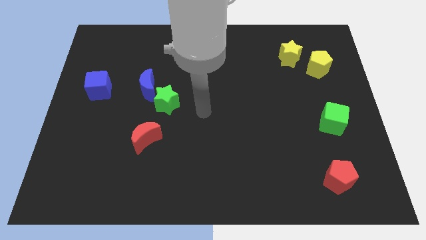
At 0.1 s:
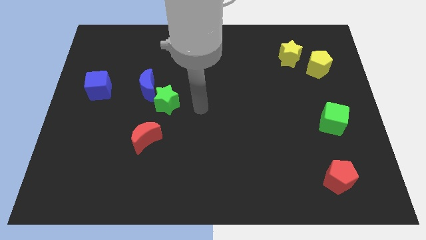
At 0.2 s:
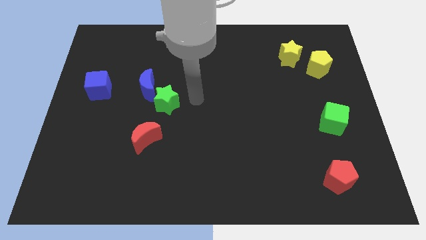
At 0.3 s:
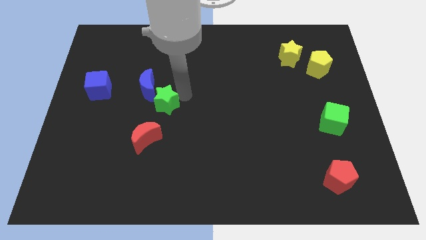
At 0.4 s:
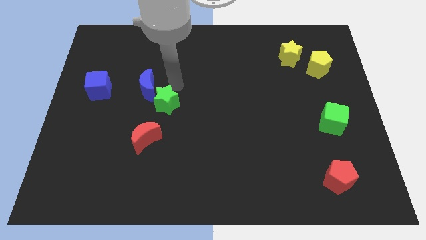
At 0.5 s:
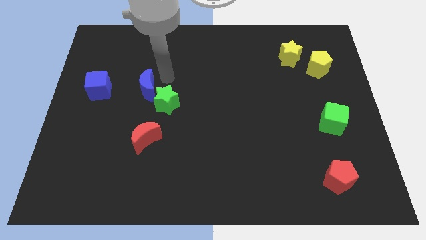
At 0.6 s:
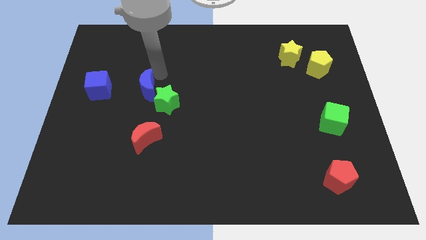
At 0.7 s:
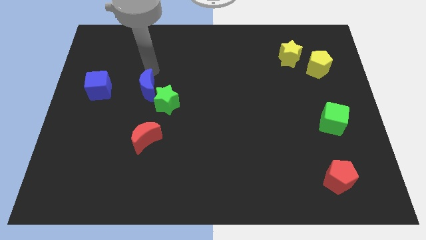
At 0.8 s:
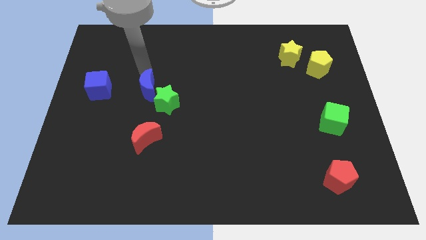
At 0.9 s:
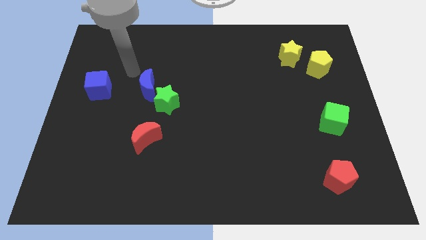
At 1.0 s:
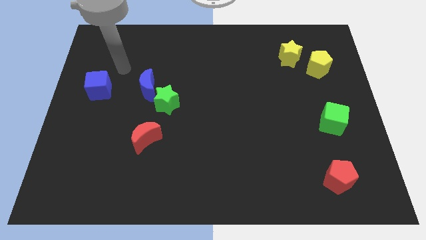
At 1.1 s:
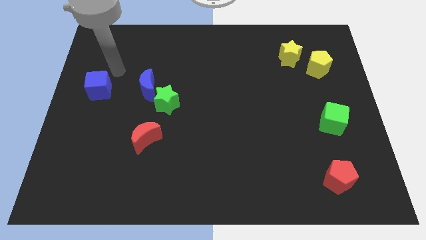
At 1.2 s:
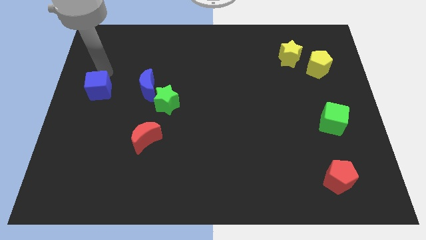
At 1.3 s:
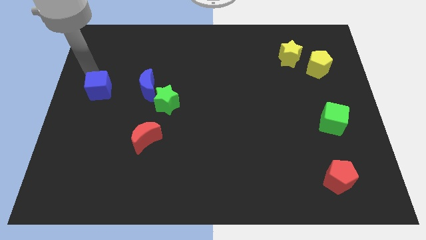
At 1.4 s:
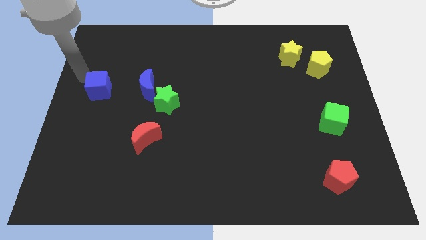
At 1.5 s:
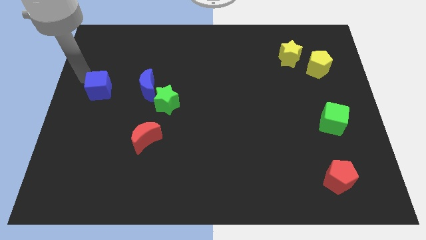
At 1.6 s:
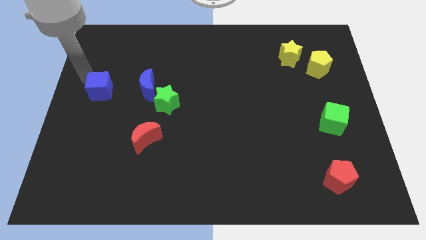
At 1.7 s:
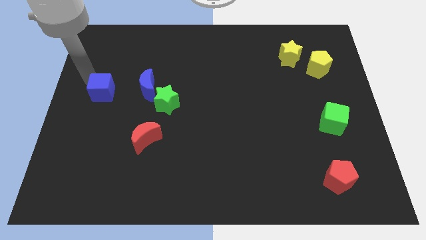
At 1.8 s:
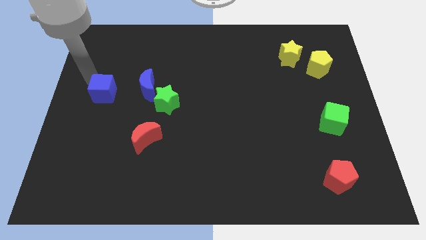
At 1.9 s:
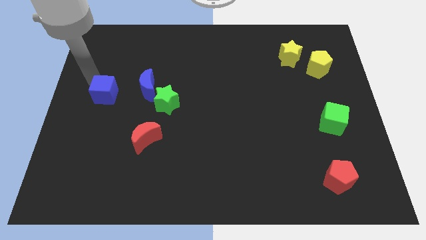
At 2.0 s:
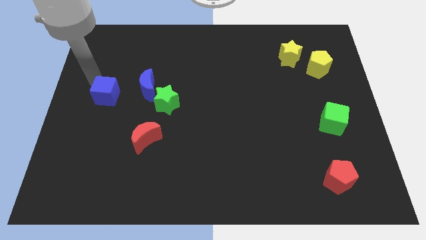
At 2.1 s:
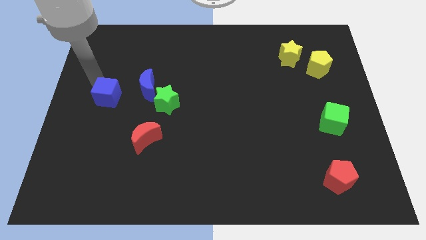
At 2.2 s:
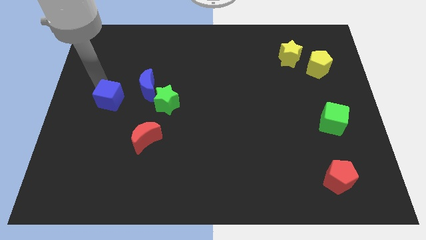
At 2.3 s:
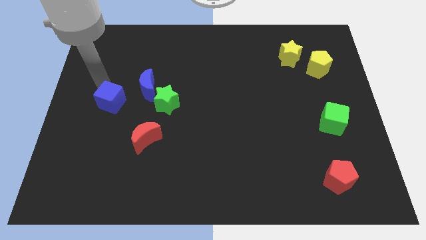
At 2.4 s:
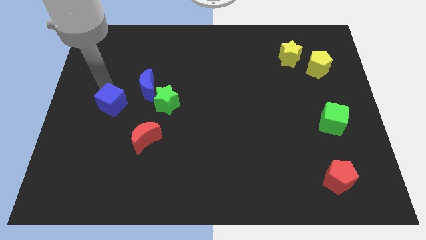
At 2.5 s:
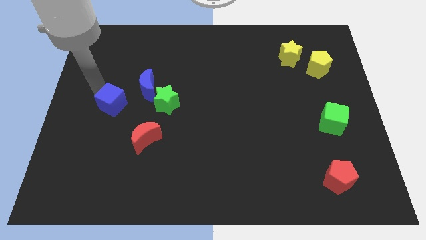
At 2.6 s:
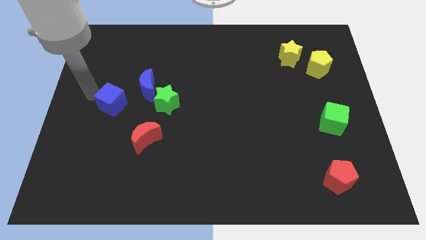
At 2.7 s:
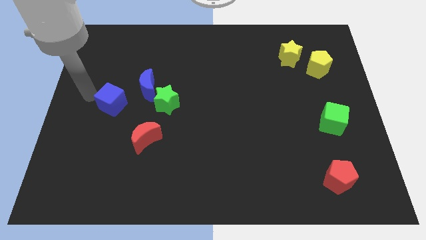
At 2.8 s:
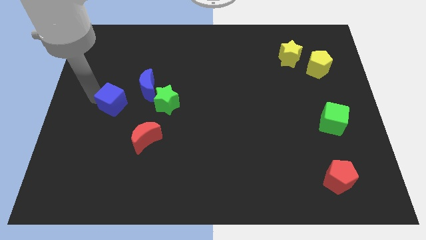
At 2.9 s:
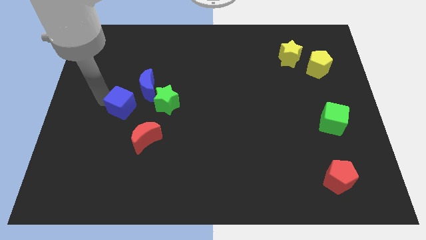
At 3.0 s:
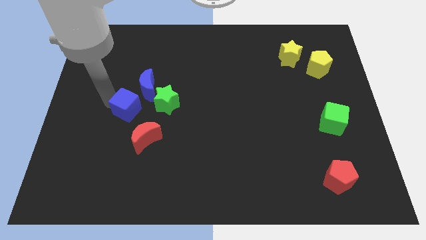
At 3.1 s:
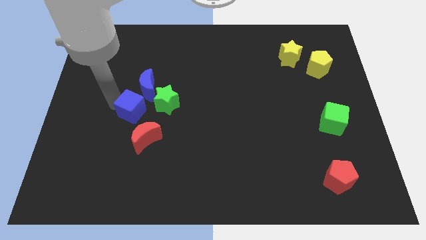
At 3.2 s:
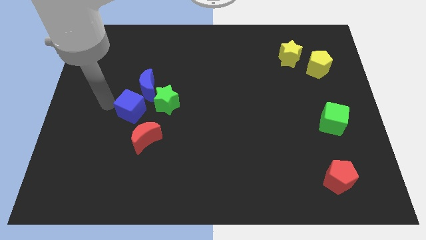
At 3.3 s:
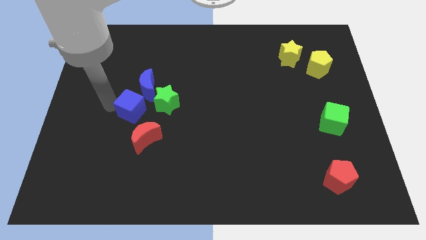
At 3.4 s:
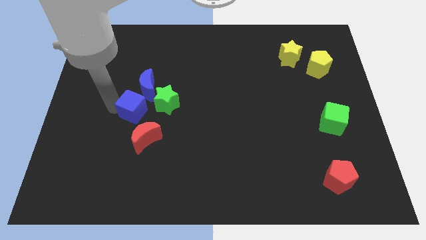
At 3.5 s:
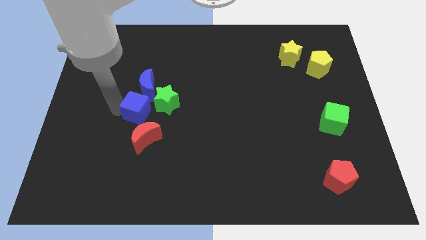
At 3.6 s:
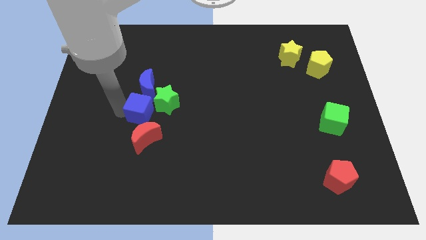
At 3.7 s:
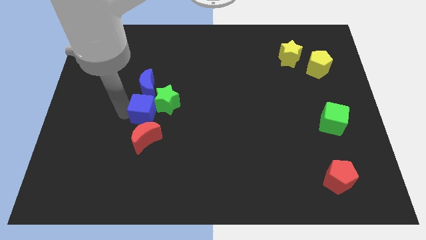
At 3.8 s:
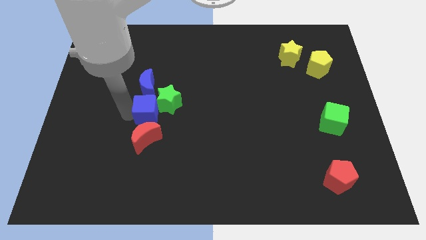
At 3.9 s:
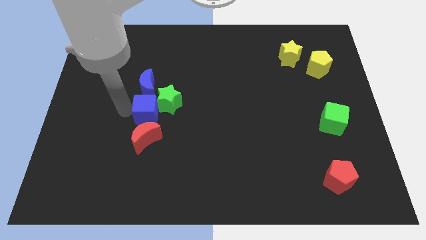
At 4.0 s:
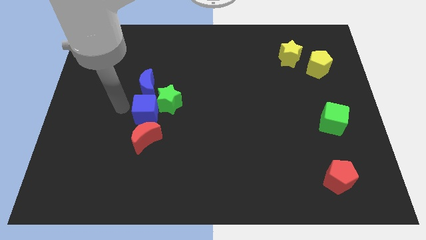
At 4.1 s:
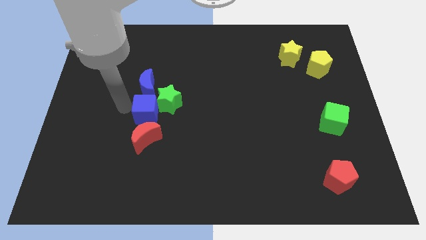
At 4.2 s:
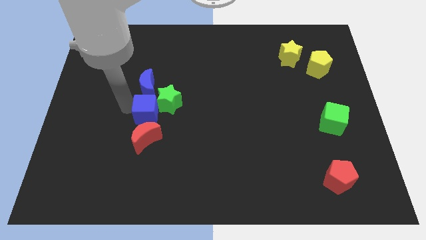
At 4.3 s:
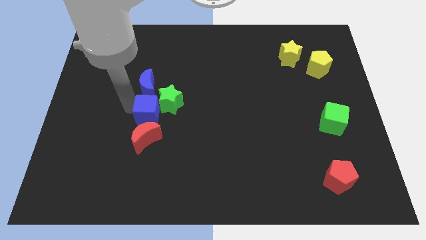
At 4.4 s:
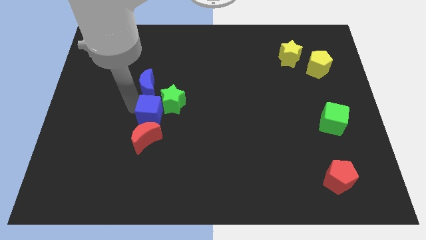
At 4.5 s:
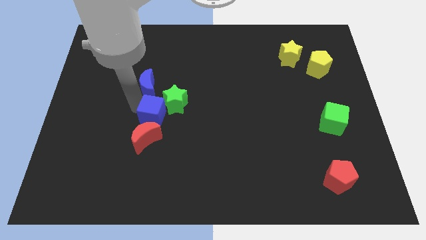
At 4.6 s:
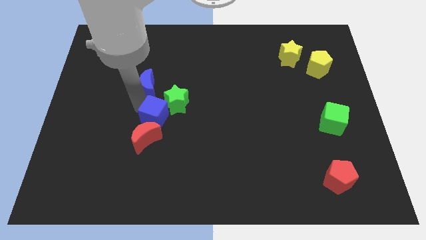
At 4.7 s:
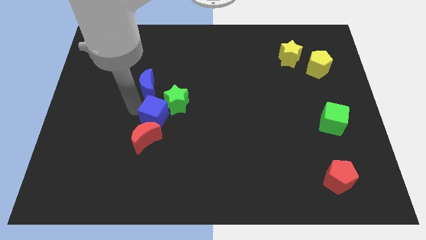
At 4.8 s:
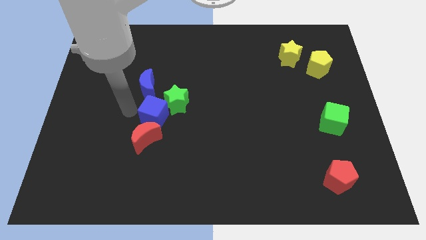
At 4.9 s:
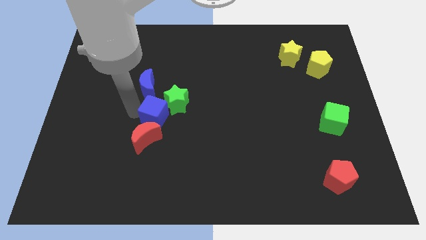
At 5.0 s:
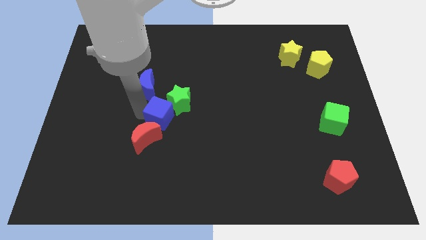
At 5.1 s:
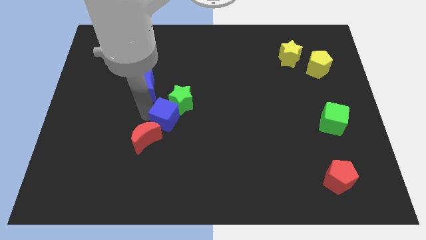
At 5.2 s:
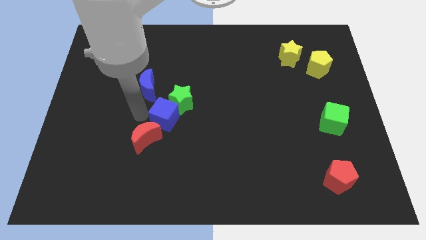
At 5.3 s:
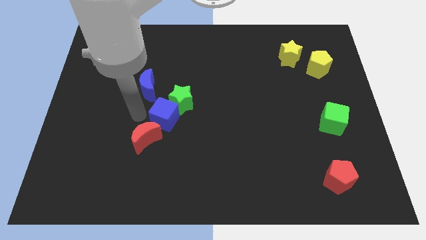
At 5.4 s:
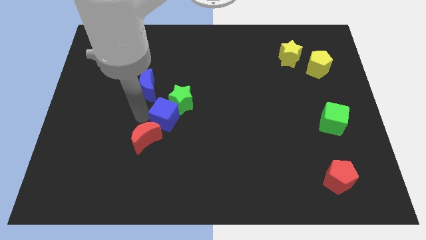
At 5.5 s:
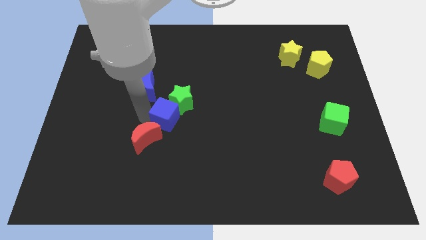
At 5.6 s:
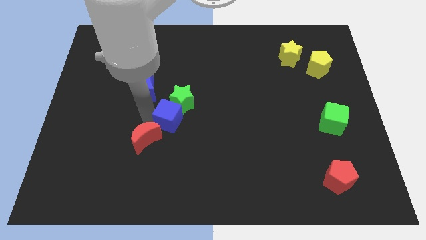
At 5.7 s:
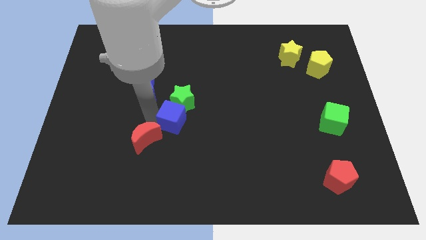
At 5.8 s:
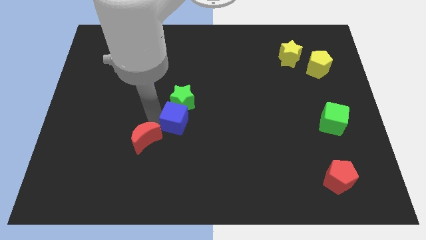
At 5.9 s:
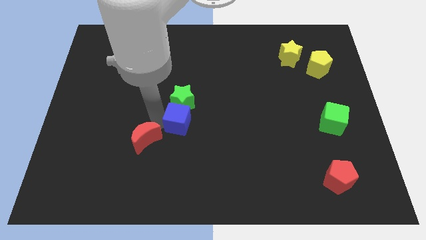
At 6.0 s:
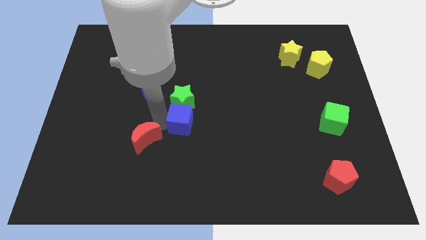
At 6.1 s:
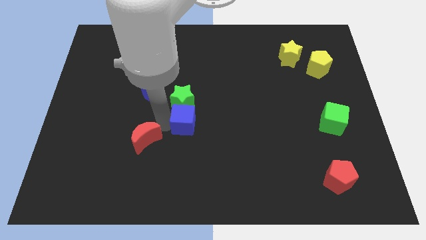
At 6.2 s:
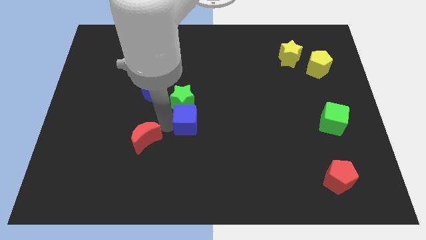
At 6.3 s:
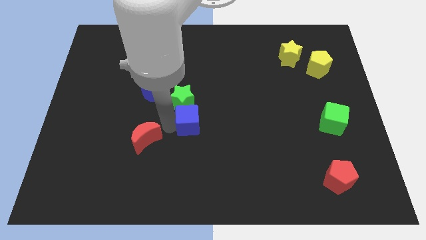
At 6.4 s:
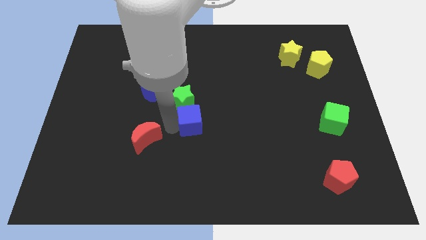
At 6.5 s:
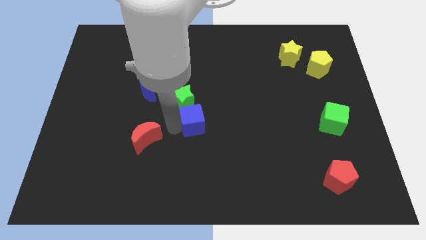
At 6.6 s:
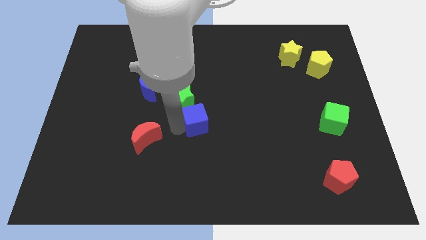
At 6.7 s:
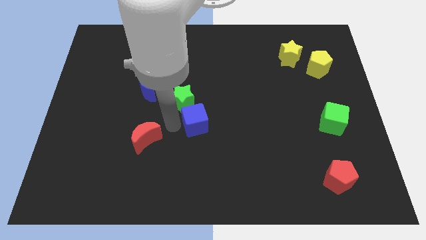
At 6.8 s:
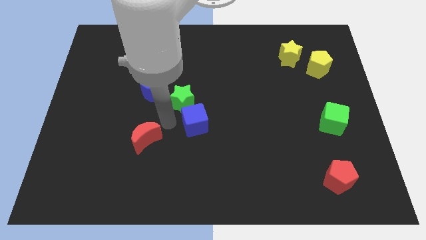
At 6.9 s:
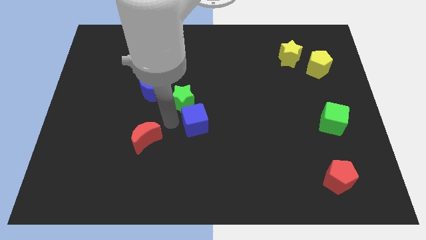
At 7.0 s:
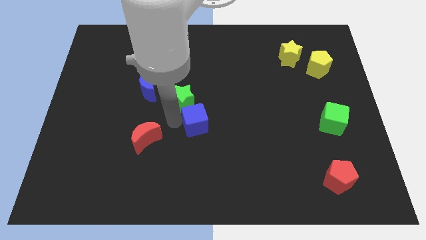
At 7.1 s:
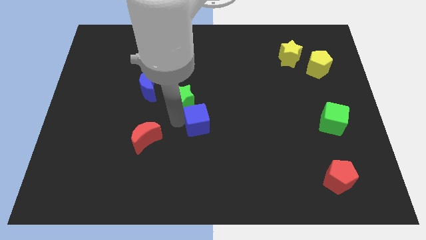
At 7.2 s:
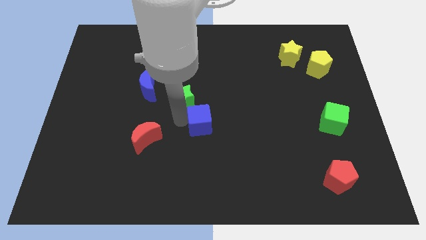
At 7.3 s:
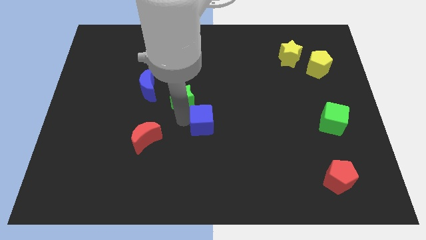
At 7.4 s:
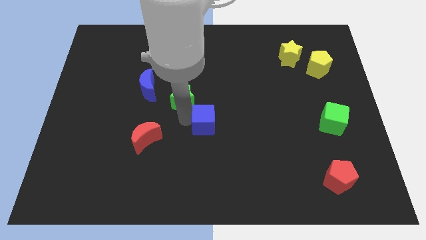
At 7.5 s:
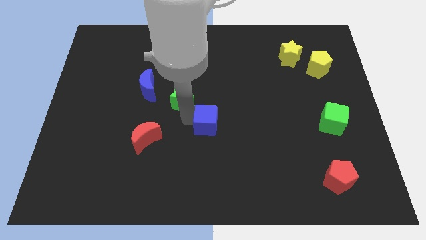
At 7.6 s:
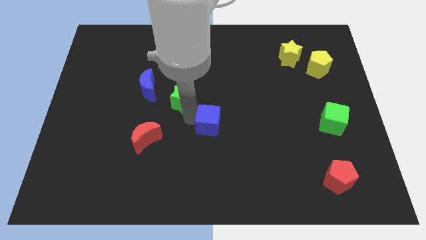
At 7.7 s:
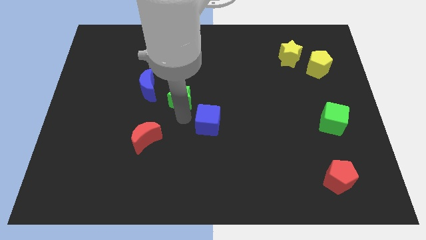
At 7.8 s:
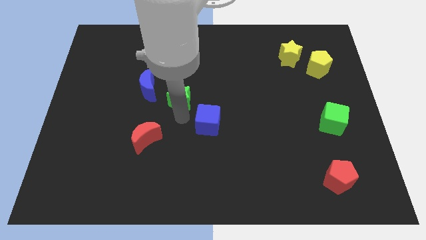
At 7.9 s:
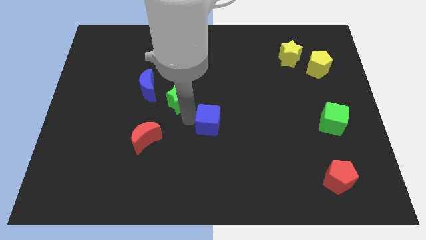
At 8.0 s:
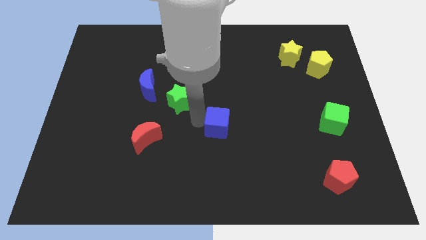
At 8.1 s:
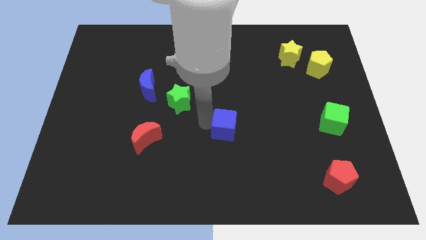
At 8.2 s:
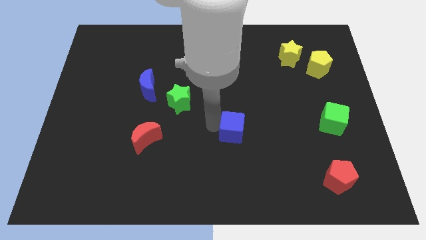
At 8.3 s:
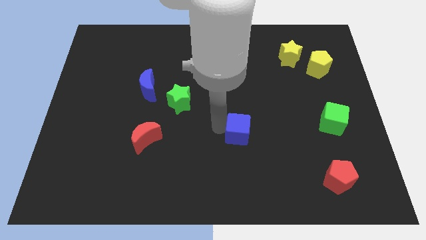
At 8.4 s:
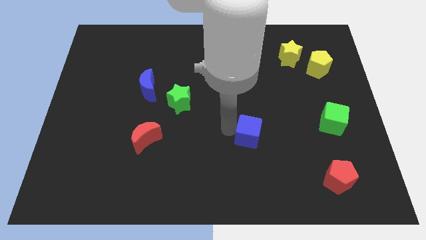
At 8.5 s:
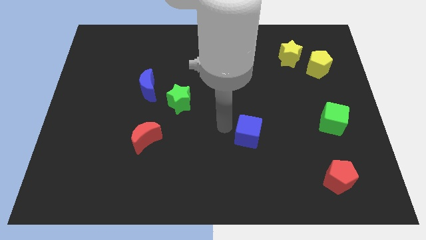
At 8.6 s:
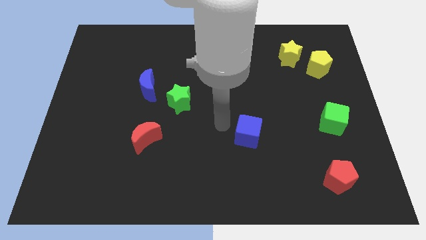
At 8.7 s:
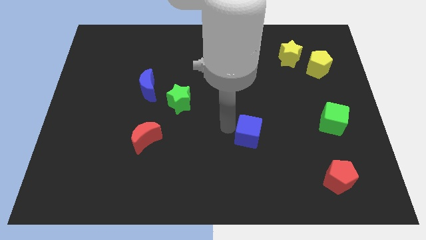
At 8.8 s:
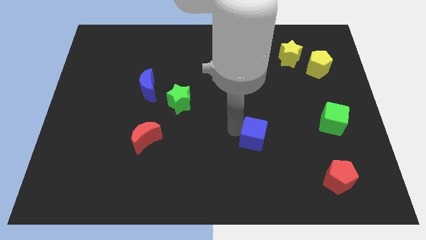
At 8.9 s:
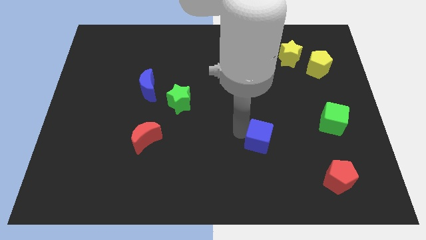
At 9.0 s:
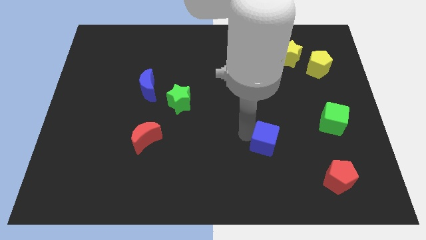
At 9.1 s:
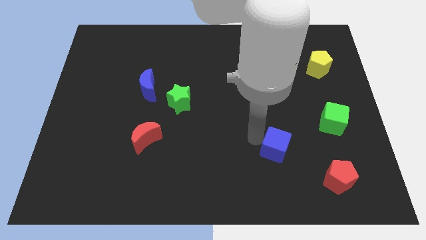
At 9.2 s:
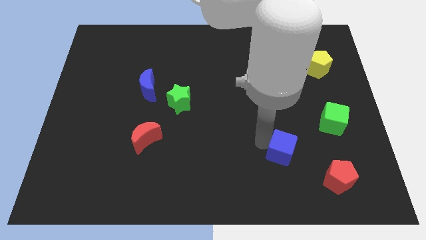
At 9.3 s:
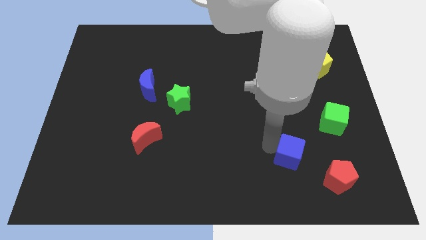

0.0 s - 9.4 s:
put the blue cube diagonally up and to the left of the red pentagon
